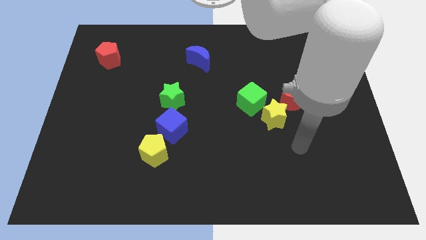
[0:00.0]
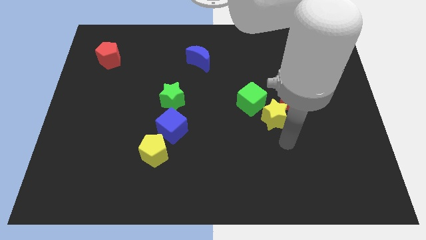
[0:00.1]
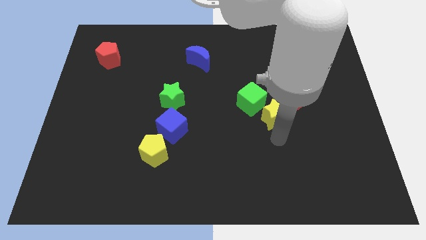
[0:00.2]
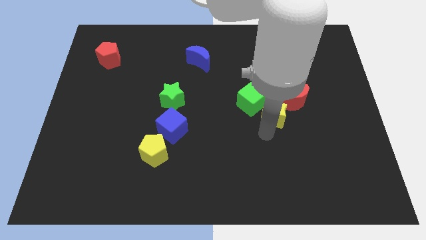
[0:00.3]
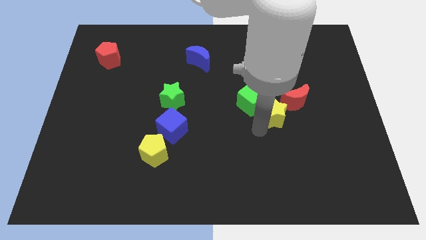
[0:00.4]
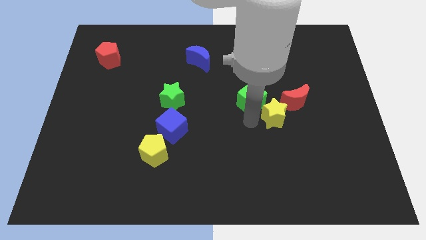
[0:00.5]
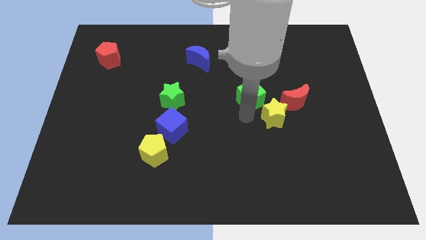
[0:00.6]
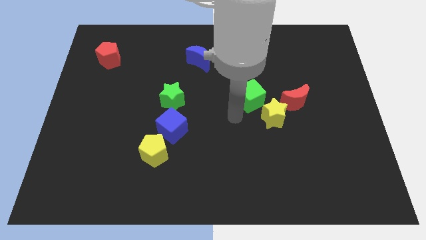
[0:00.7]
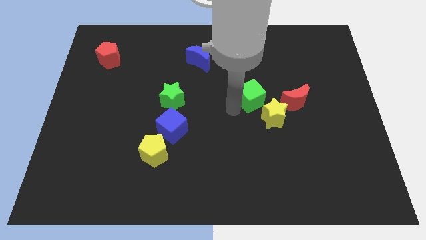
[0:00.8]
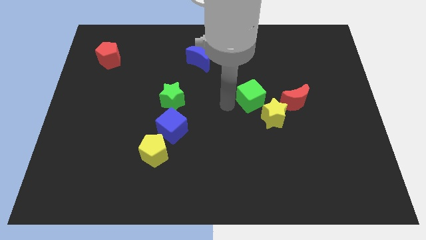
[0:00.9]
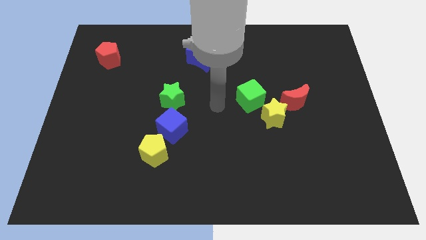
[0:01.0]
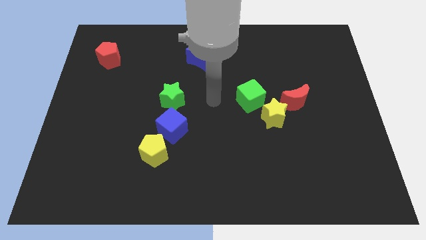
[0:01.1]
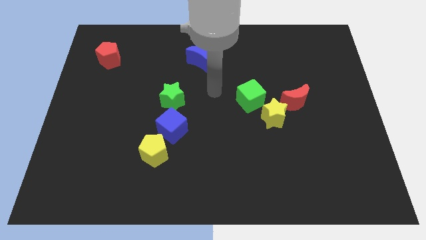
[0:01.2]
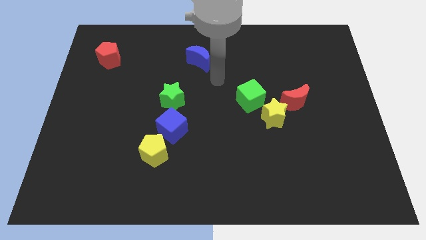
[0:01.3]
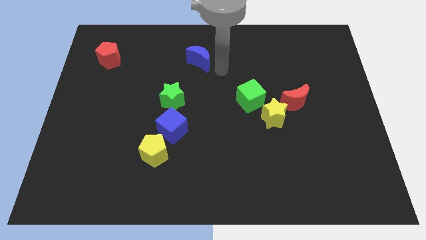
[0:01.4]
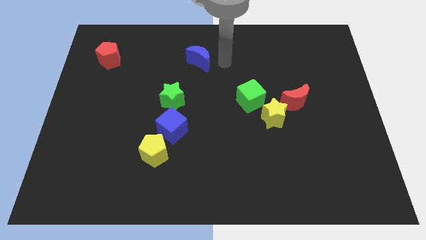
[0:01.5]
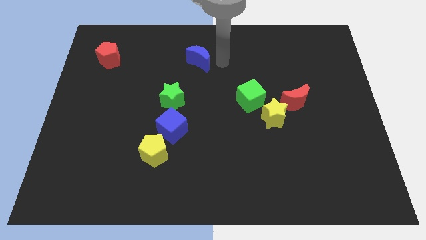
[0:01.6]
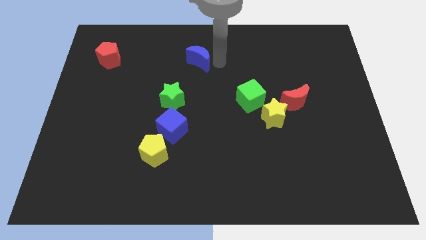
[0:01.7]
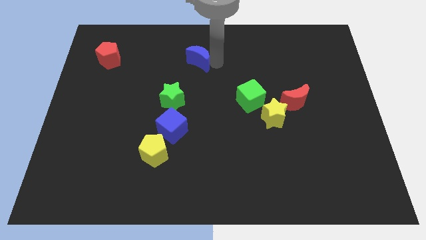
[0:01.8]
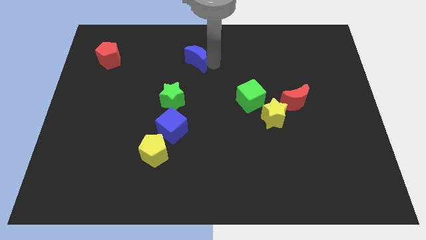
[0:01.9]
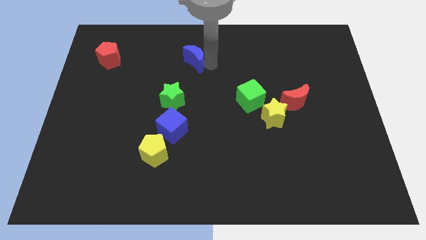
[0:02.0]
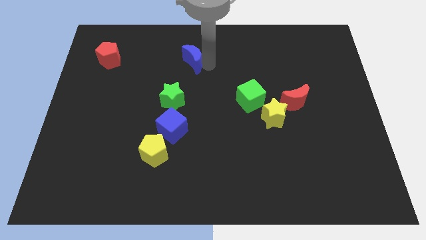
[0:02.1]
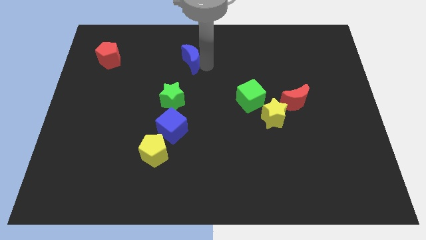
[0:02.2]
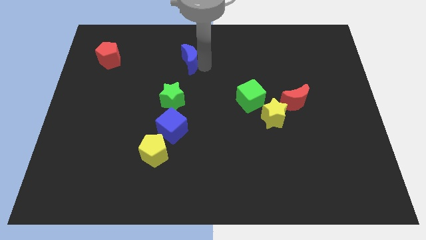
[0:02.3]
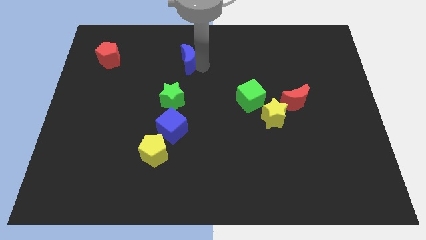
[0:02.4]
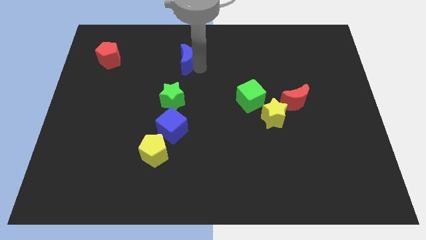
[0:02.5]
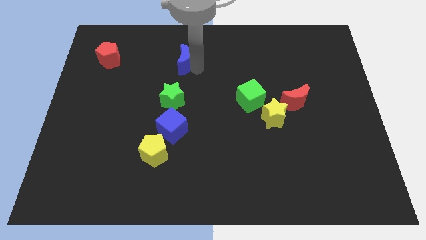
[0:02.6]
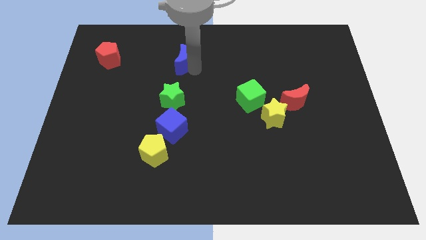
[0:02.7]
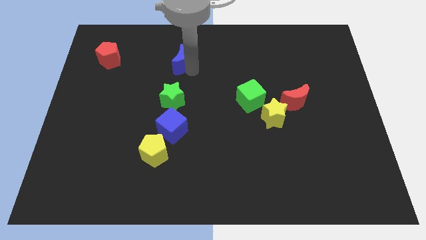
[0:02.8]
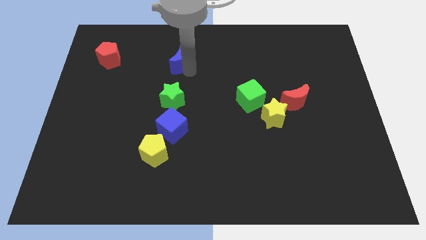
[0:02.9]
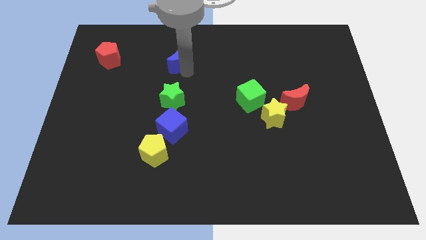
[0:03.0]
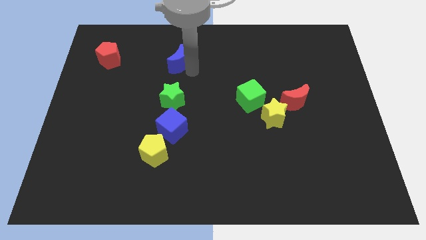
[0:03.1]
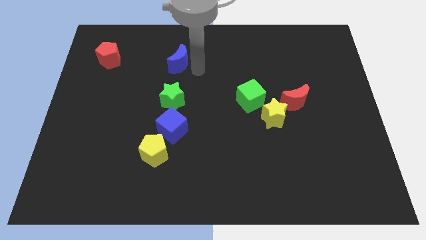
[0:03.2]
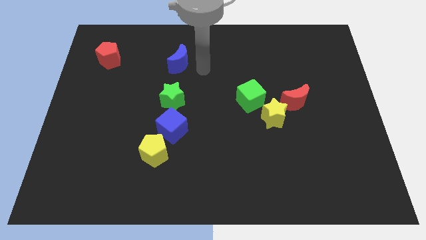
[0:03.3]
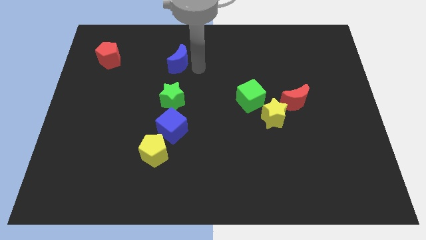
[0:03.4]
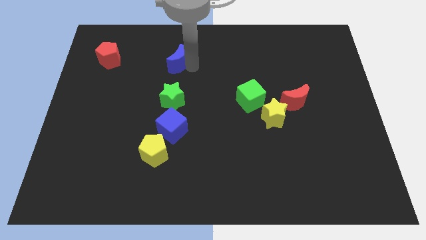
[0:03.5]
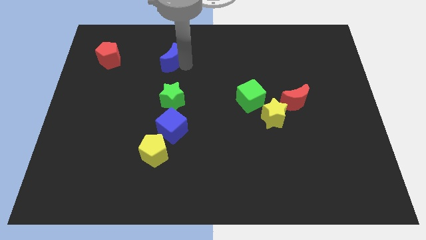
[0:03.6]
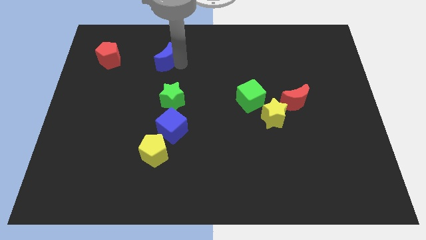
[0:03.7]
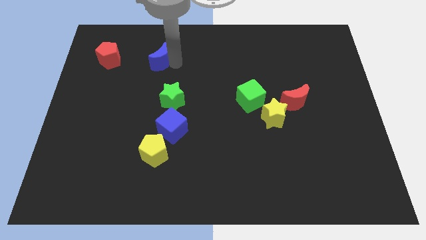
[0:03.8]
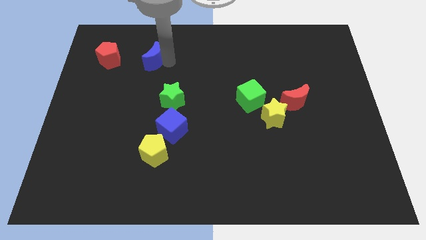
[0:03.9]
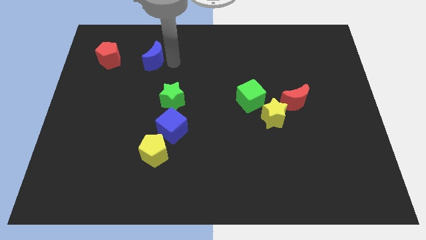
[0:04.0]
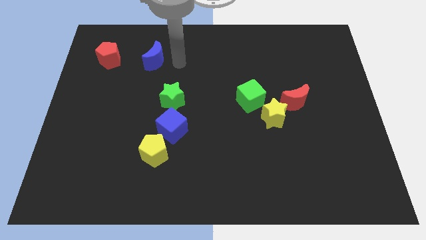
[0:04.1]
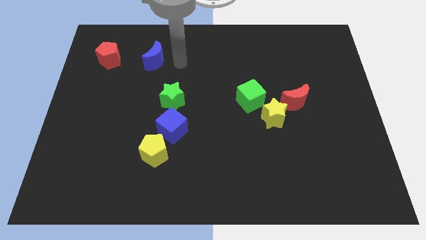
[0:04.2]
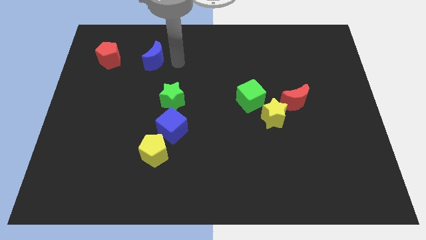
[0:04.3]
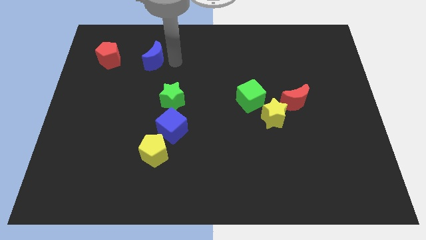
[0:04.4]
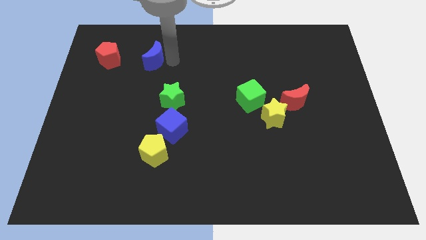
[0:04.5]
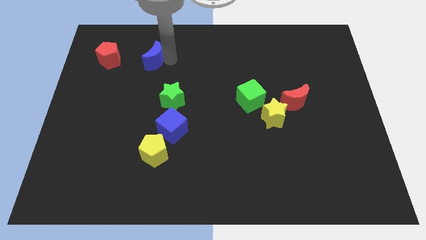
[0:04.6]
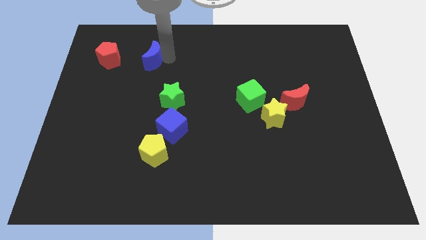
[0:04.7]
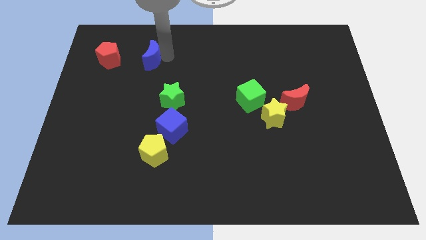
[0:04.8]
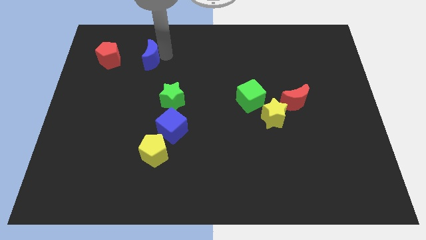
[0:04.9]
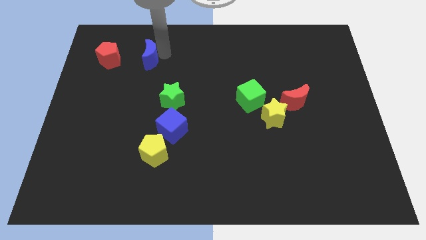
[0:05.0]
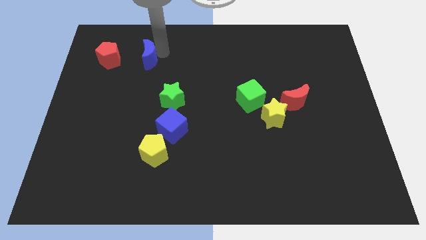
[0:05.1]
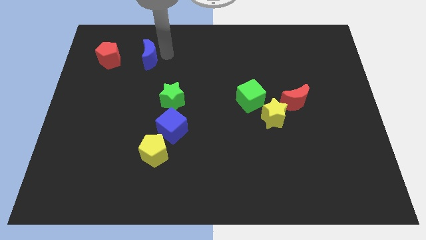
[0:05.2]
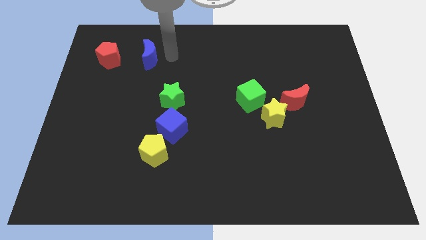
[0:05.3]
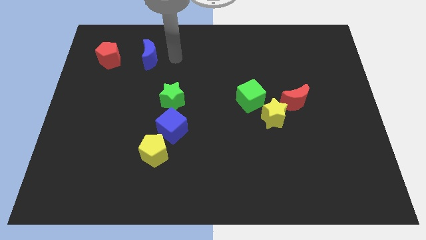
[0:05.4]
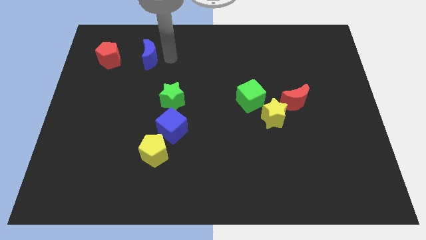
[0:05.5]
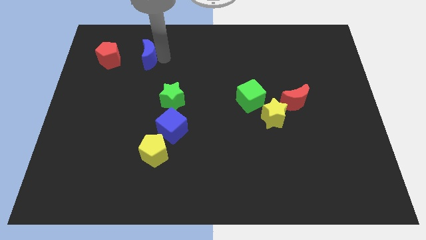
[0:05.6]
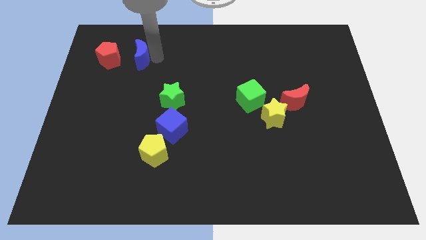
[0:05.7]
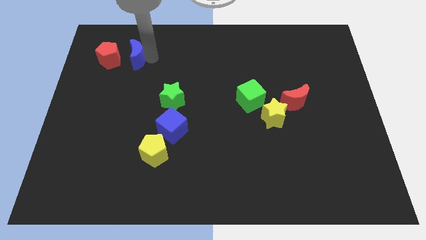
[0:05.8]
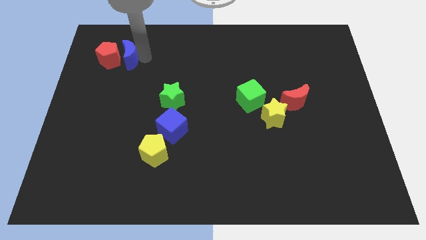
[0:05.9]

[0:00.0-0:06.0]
move the blue moon to the red pentagon

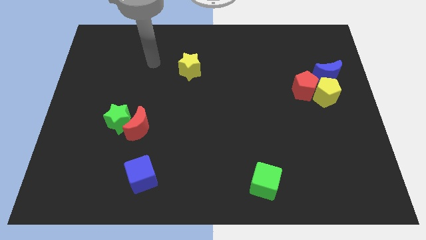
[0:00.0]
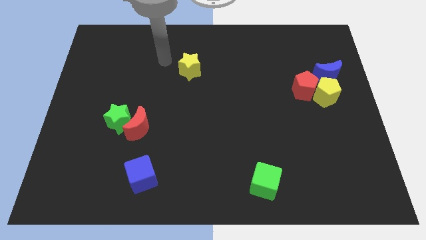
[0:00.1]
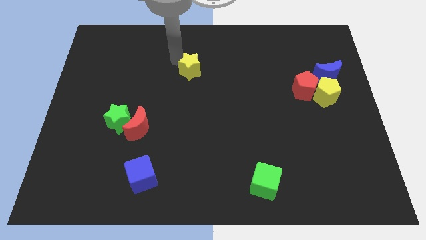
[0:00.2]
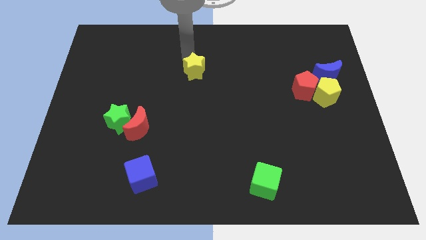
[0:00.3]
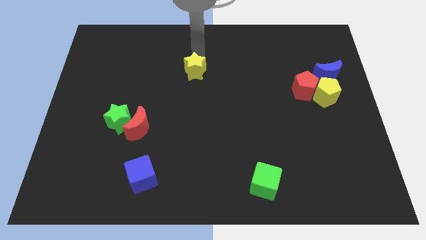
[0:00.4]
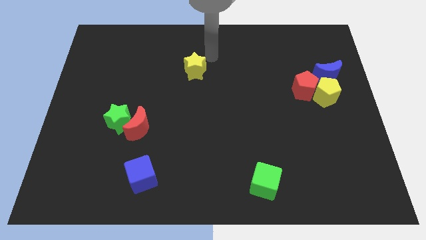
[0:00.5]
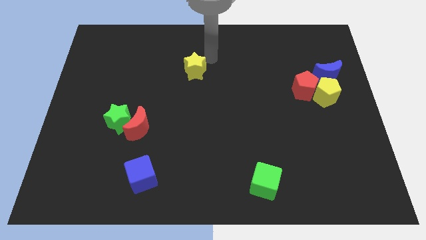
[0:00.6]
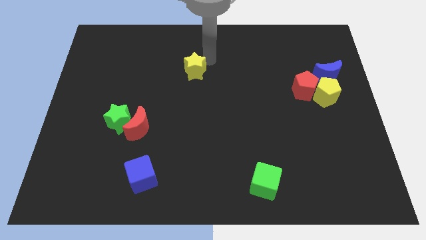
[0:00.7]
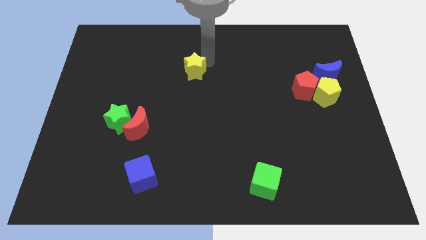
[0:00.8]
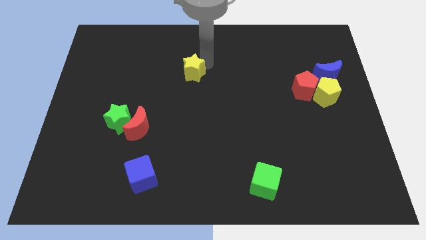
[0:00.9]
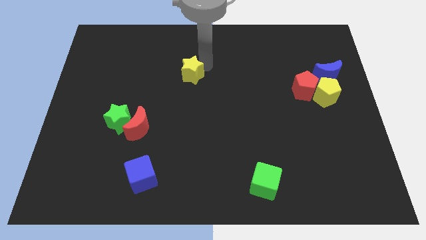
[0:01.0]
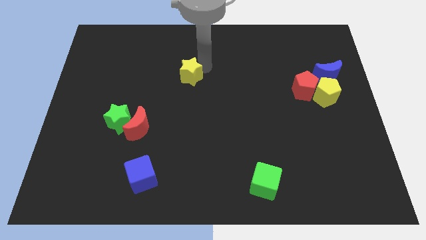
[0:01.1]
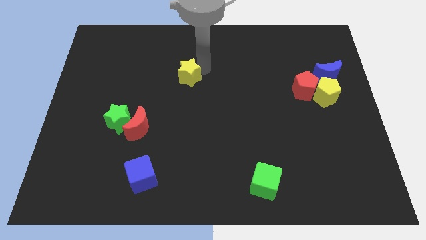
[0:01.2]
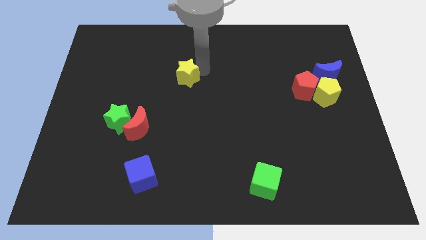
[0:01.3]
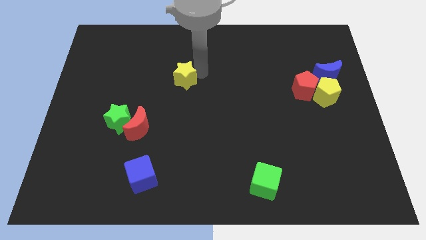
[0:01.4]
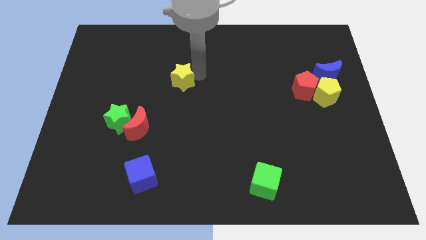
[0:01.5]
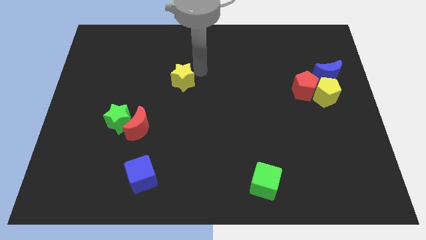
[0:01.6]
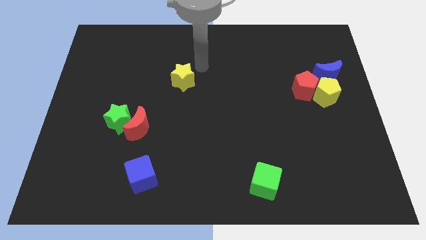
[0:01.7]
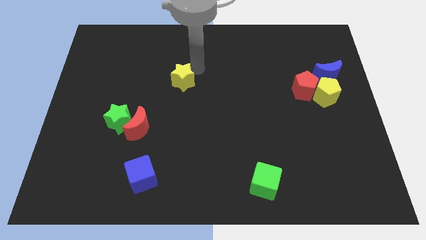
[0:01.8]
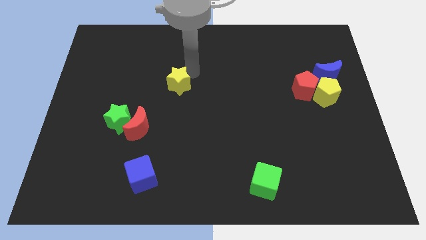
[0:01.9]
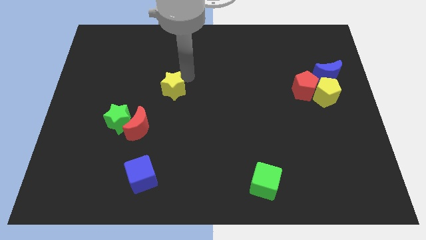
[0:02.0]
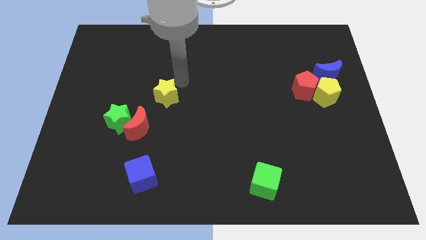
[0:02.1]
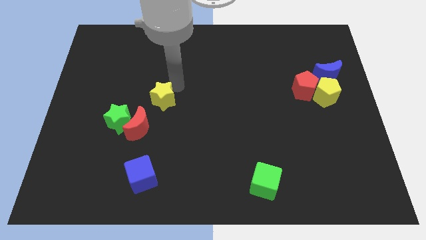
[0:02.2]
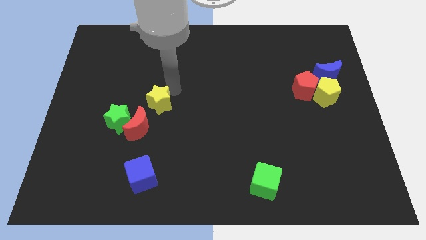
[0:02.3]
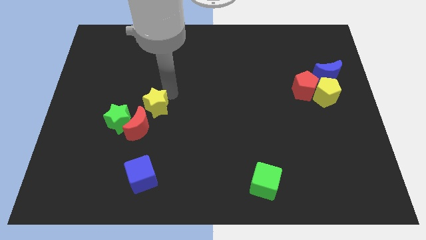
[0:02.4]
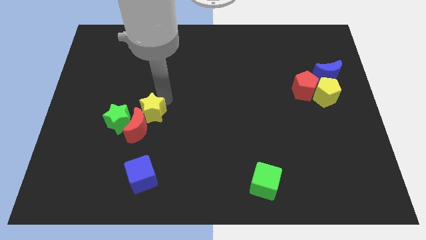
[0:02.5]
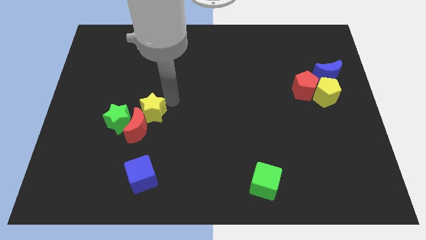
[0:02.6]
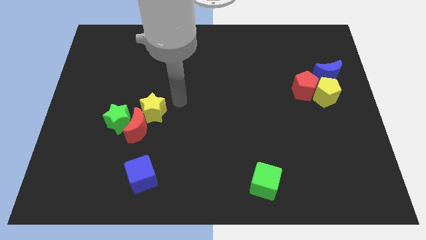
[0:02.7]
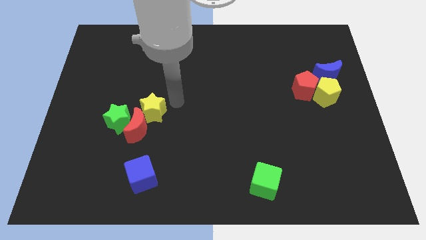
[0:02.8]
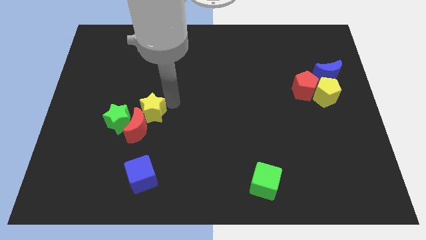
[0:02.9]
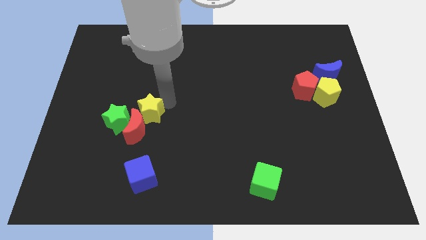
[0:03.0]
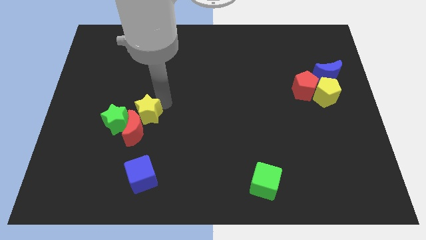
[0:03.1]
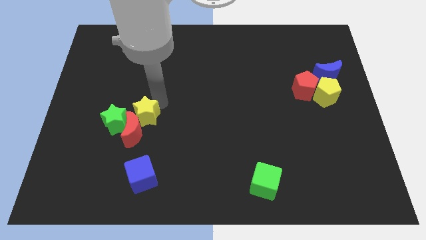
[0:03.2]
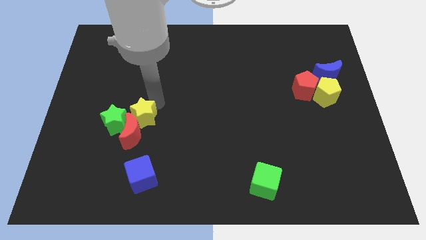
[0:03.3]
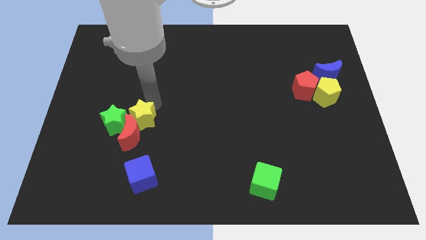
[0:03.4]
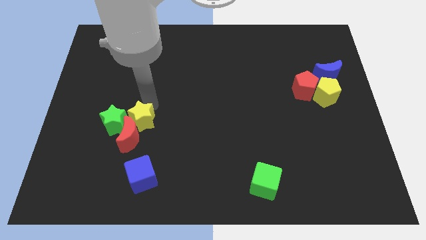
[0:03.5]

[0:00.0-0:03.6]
slide the yellow star towards the green star
